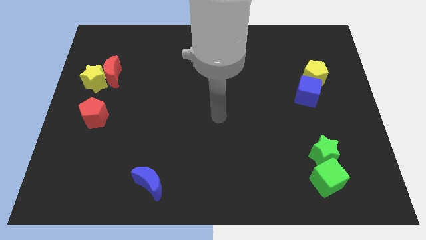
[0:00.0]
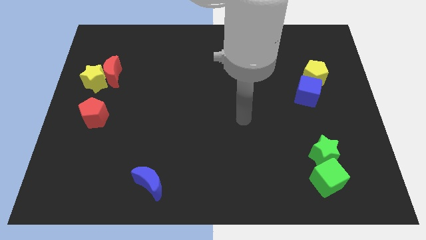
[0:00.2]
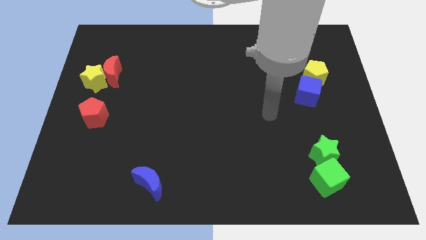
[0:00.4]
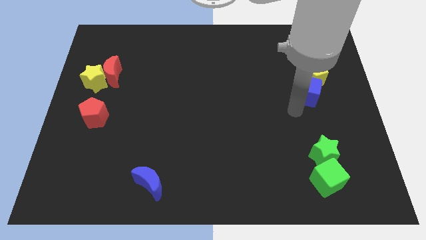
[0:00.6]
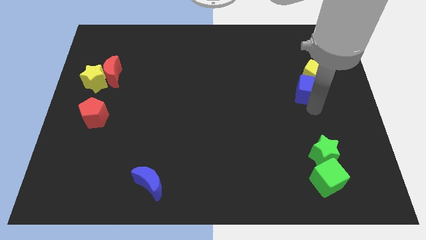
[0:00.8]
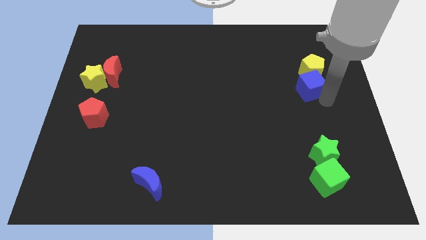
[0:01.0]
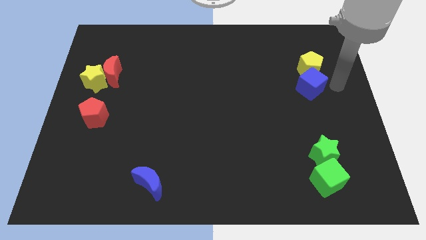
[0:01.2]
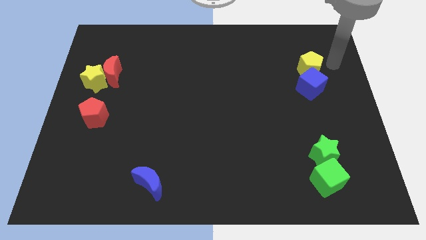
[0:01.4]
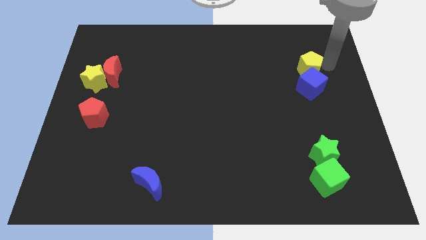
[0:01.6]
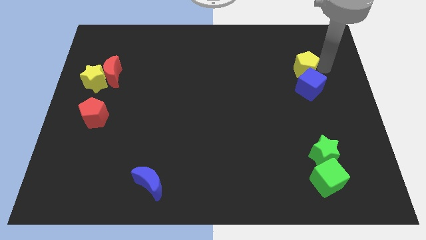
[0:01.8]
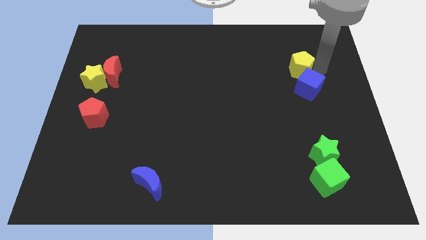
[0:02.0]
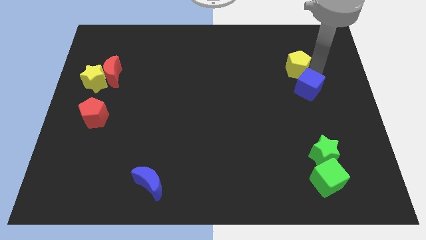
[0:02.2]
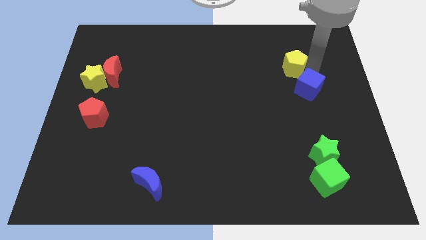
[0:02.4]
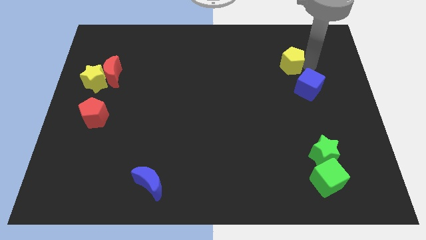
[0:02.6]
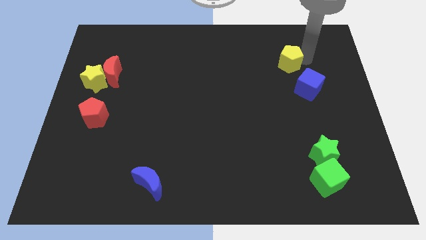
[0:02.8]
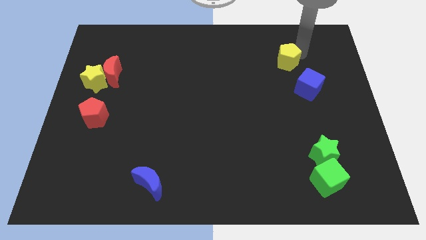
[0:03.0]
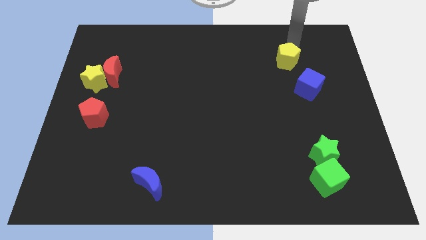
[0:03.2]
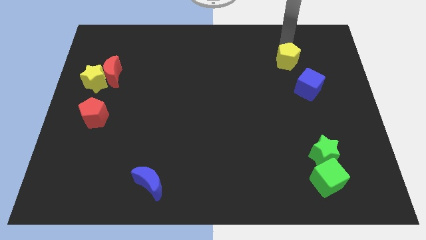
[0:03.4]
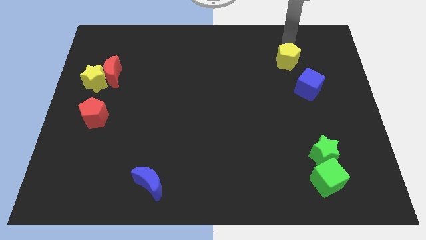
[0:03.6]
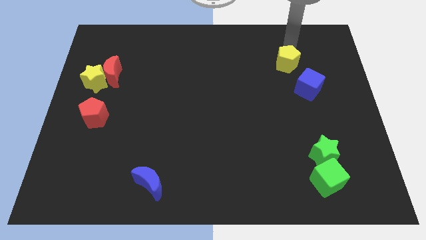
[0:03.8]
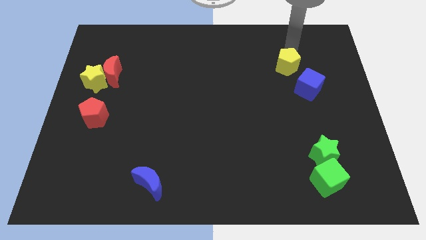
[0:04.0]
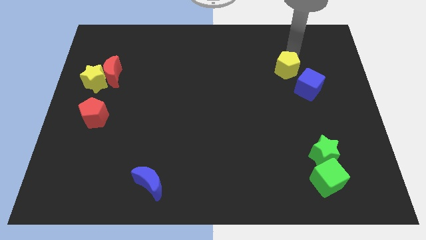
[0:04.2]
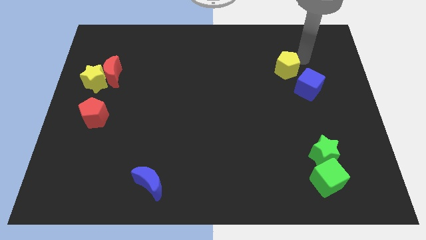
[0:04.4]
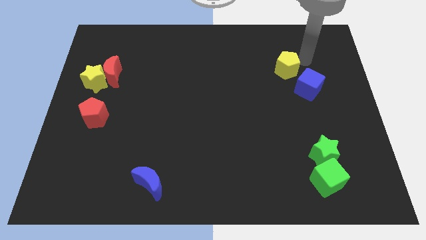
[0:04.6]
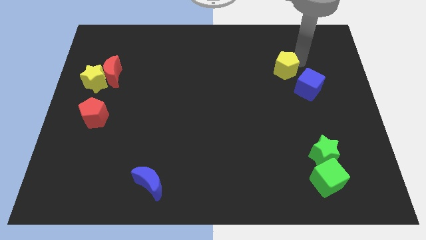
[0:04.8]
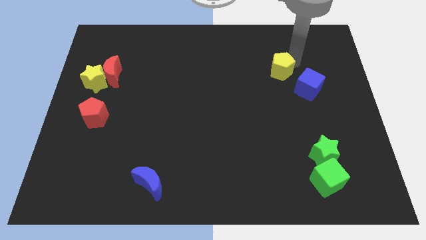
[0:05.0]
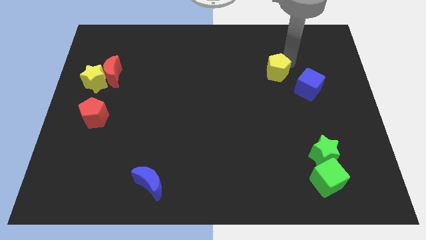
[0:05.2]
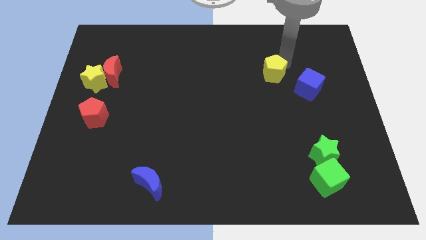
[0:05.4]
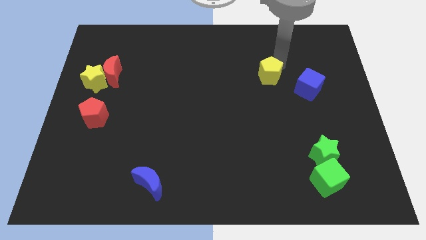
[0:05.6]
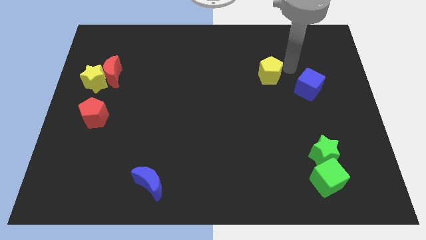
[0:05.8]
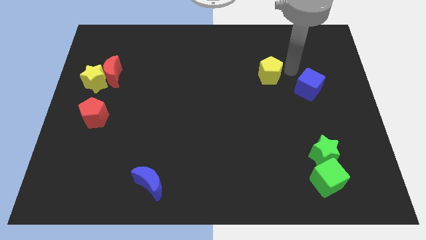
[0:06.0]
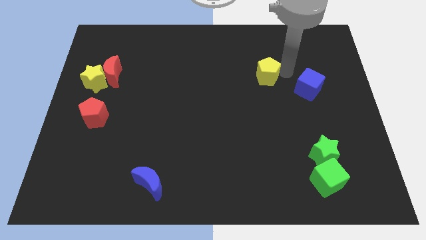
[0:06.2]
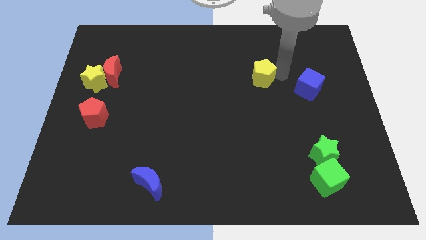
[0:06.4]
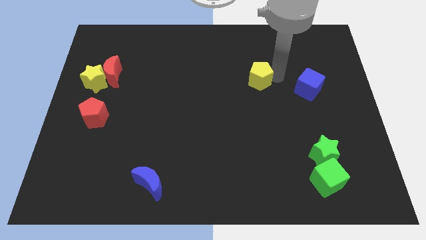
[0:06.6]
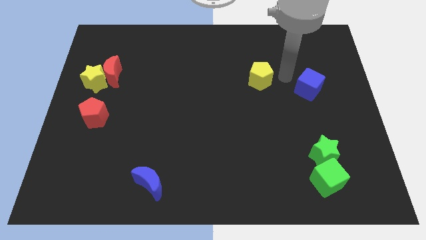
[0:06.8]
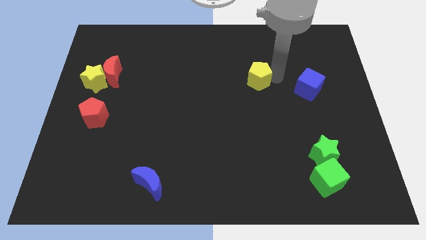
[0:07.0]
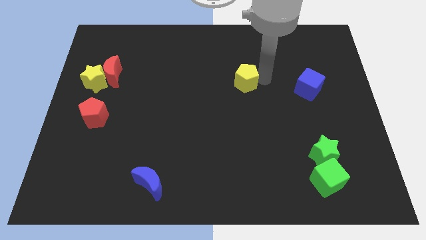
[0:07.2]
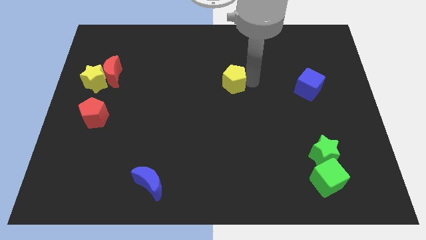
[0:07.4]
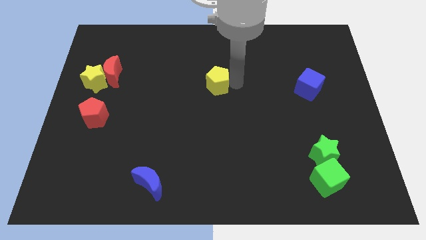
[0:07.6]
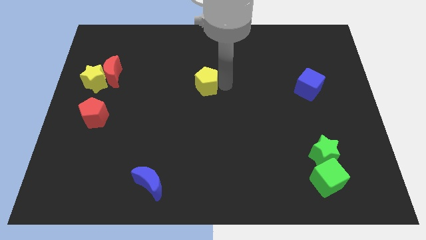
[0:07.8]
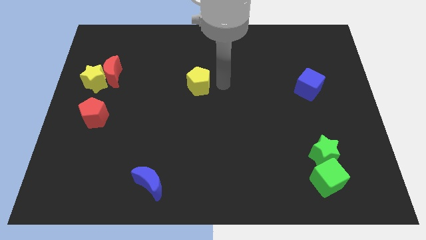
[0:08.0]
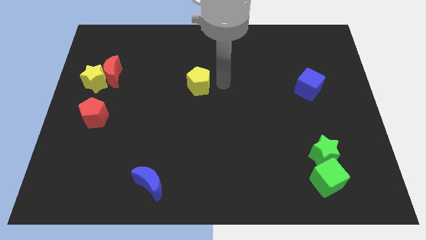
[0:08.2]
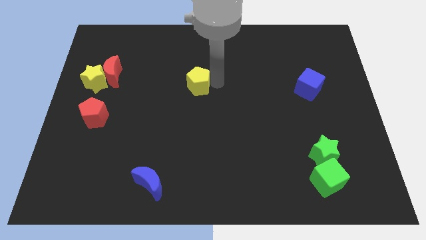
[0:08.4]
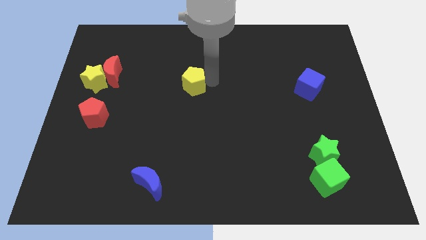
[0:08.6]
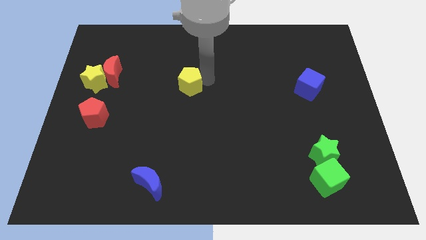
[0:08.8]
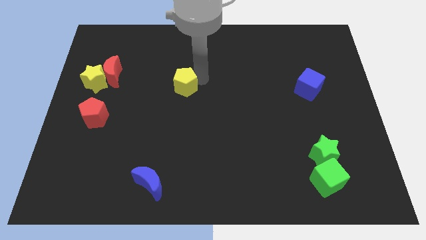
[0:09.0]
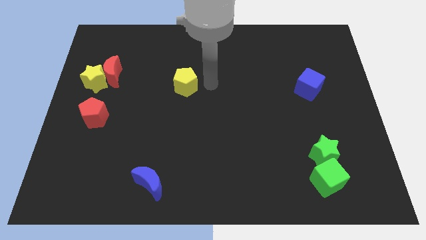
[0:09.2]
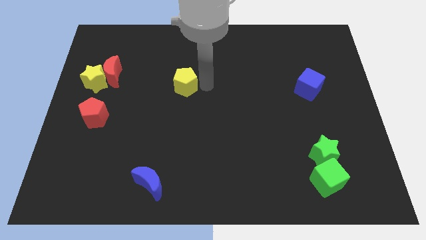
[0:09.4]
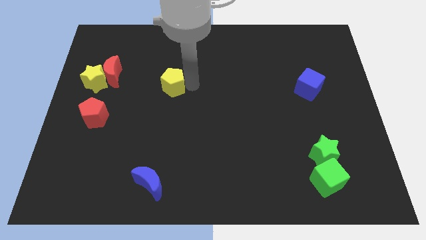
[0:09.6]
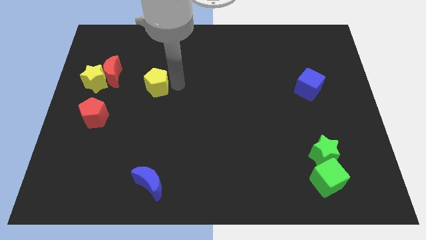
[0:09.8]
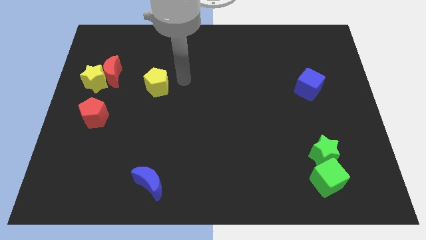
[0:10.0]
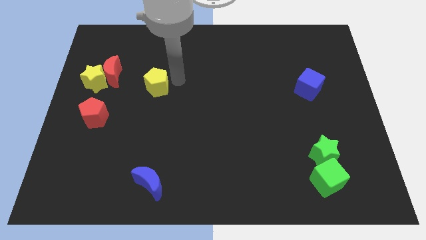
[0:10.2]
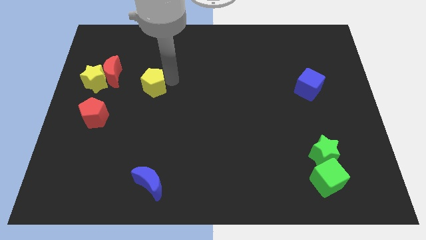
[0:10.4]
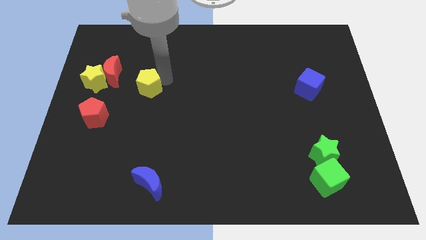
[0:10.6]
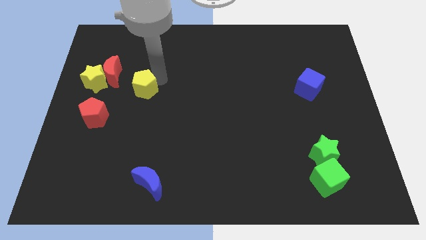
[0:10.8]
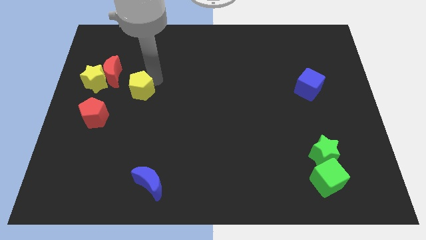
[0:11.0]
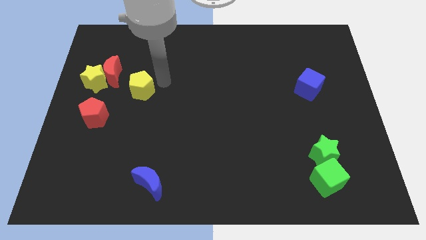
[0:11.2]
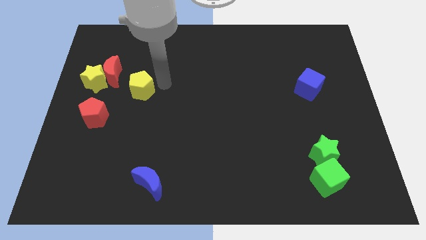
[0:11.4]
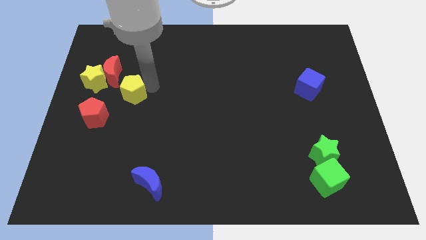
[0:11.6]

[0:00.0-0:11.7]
push the yellow pentagon to the bottom right side of the yellow star

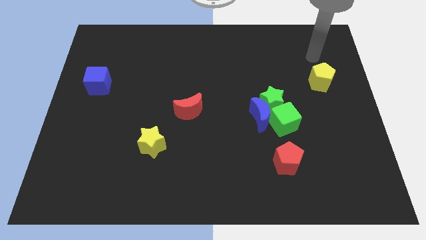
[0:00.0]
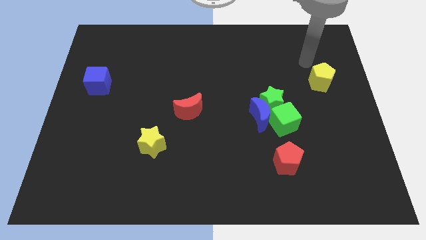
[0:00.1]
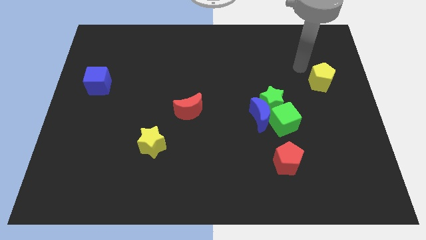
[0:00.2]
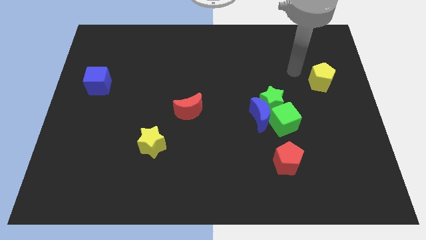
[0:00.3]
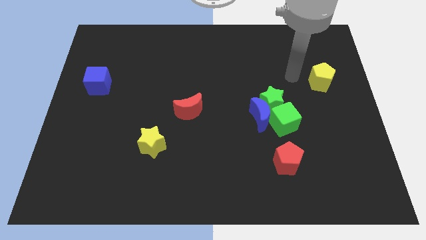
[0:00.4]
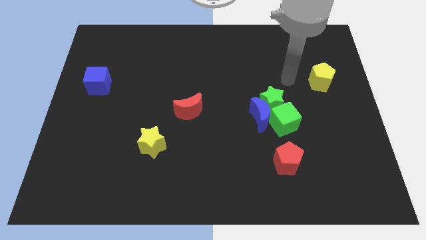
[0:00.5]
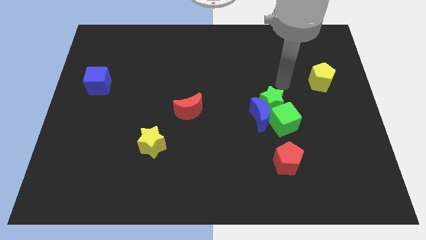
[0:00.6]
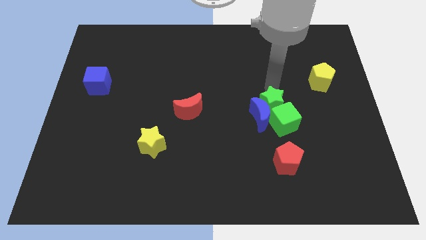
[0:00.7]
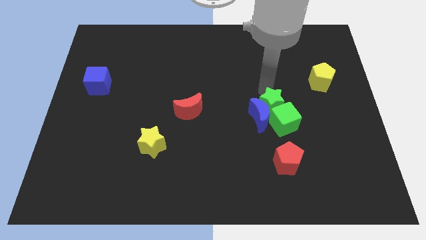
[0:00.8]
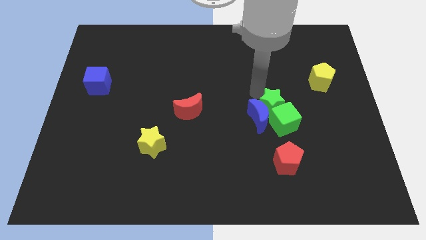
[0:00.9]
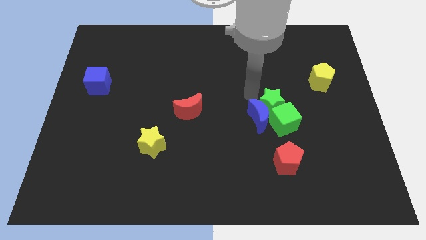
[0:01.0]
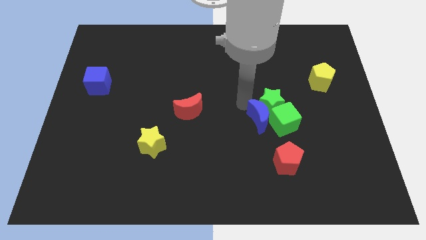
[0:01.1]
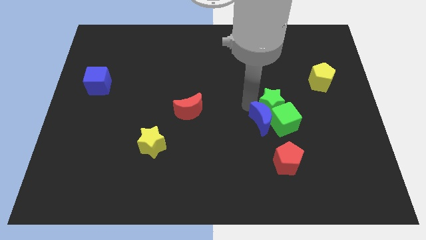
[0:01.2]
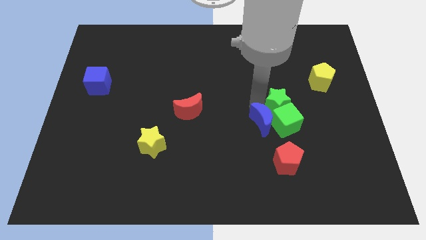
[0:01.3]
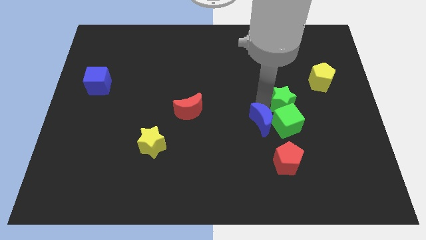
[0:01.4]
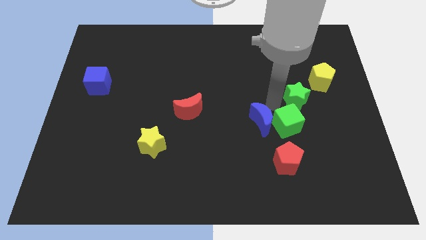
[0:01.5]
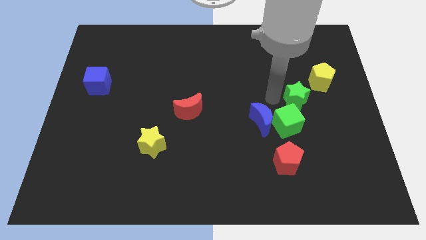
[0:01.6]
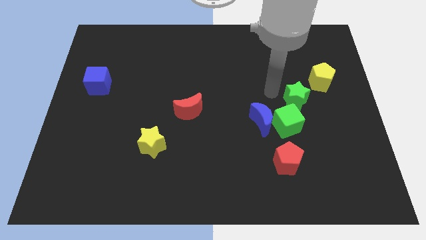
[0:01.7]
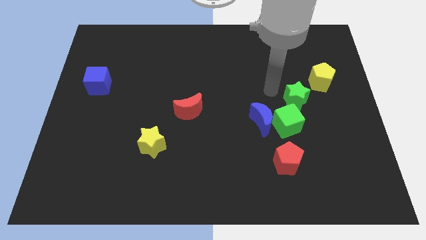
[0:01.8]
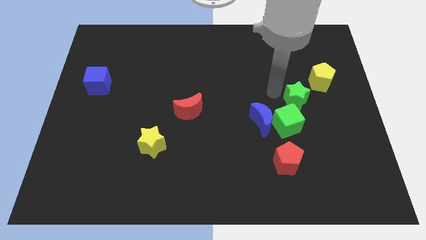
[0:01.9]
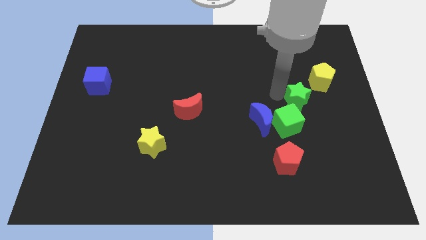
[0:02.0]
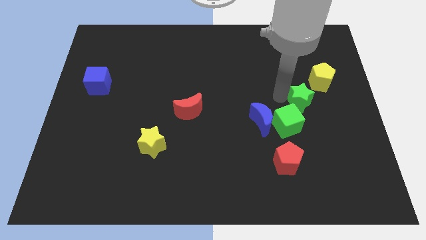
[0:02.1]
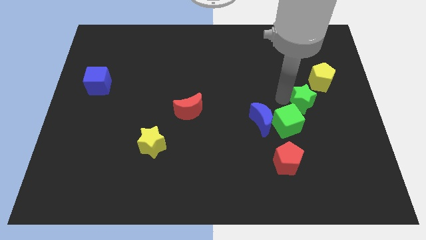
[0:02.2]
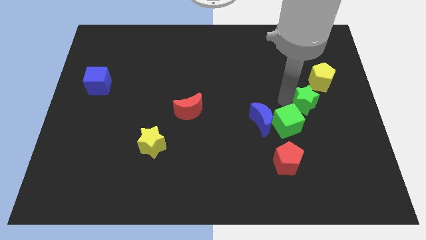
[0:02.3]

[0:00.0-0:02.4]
push the green star below the yellow pentagon
